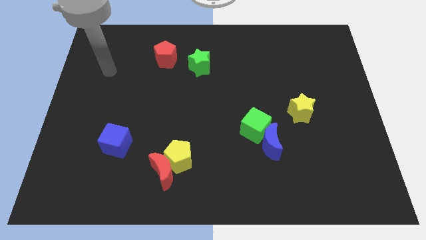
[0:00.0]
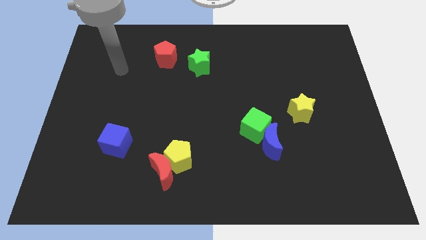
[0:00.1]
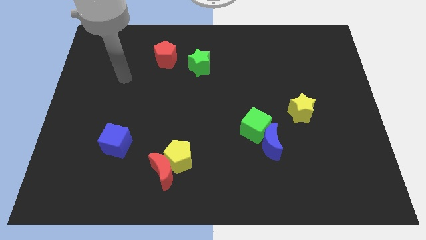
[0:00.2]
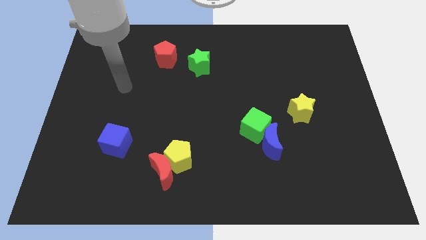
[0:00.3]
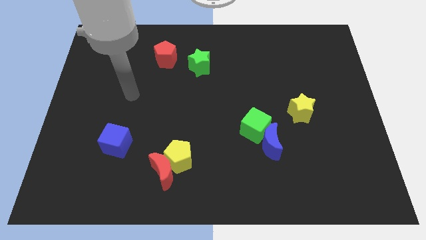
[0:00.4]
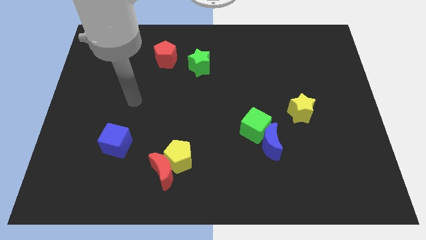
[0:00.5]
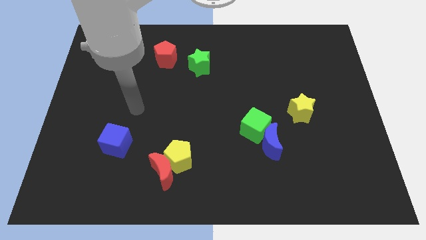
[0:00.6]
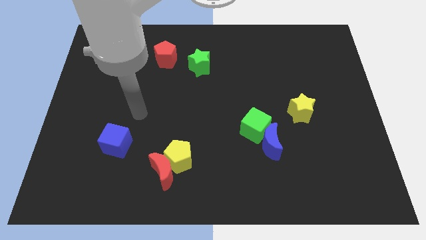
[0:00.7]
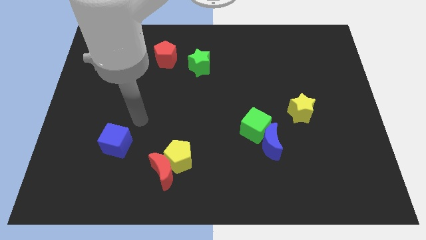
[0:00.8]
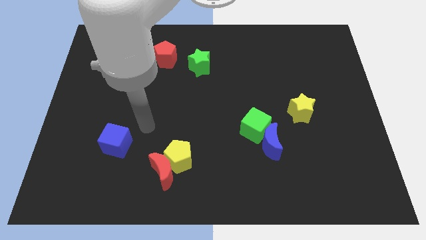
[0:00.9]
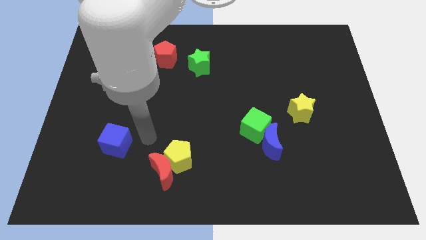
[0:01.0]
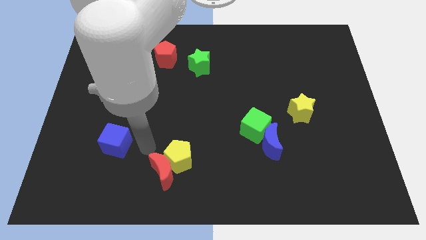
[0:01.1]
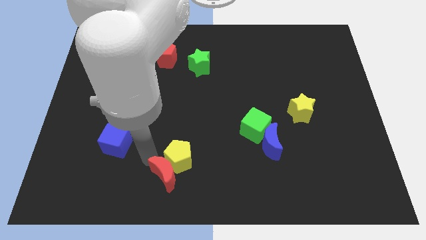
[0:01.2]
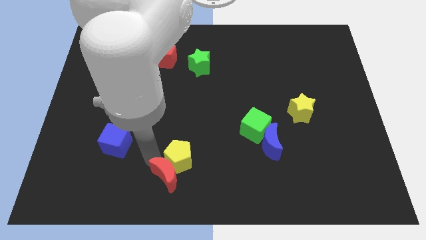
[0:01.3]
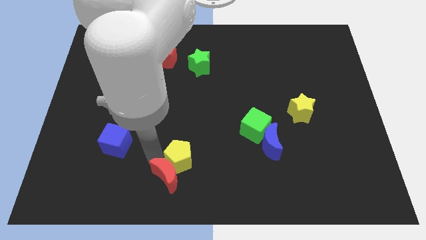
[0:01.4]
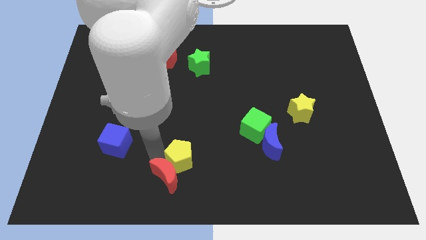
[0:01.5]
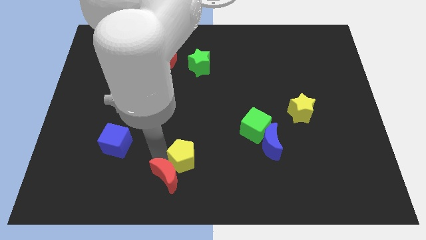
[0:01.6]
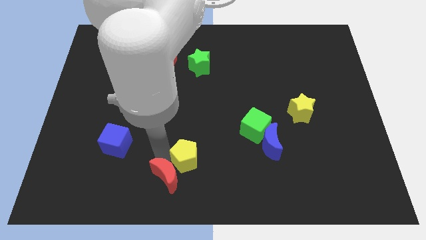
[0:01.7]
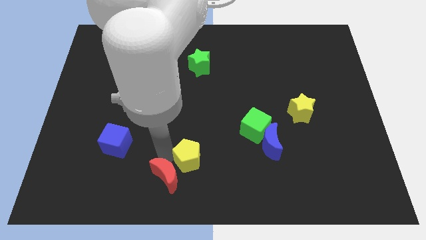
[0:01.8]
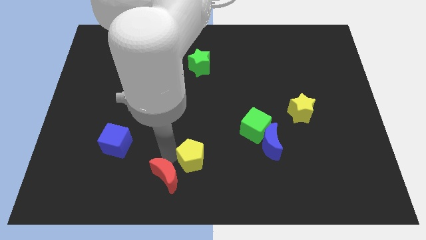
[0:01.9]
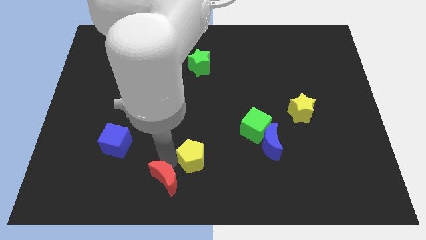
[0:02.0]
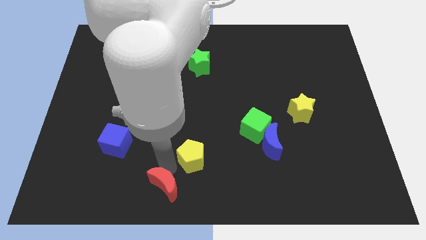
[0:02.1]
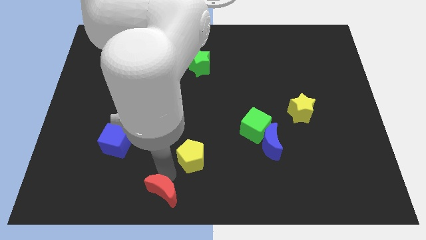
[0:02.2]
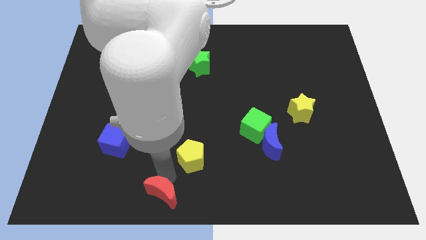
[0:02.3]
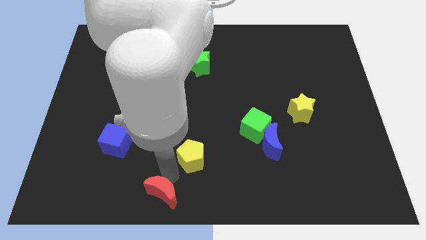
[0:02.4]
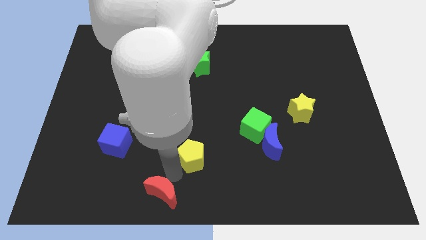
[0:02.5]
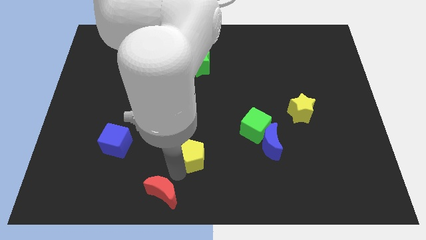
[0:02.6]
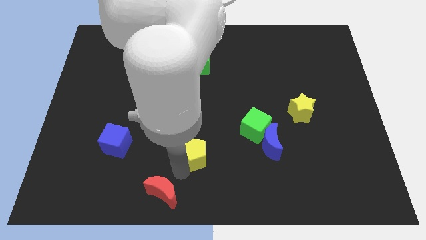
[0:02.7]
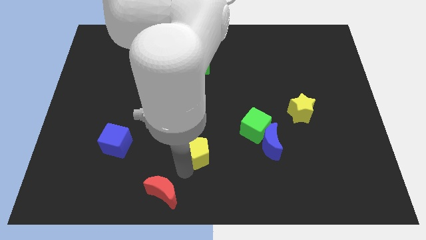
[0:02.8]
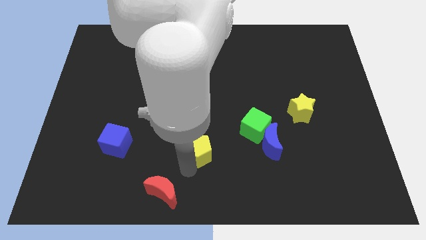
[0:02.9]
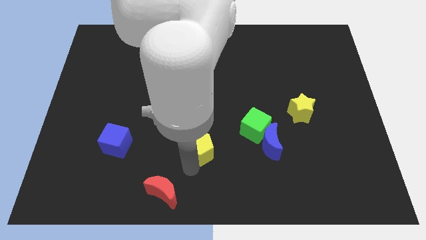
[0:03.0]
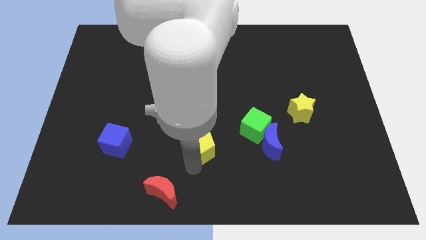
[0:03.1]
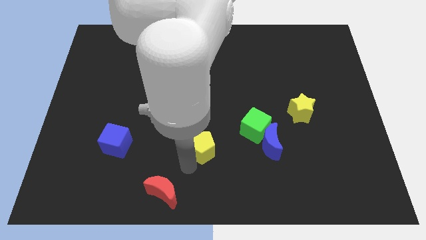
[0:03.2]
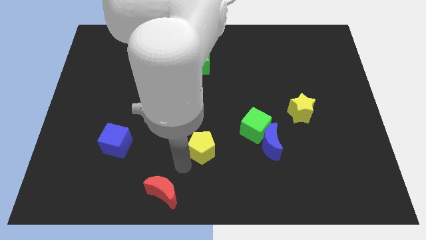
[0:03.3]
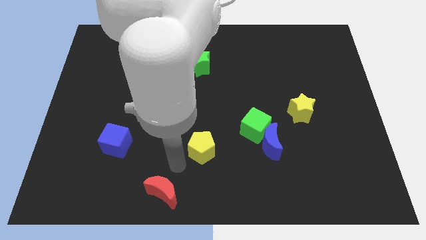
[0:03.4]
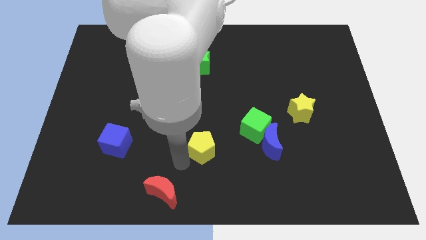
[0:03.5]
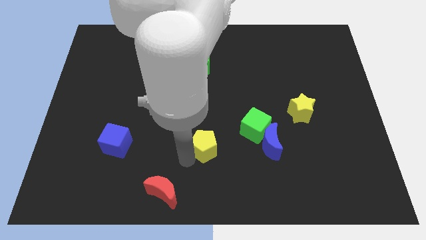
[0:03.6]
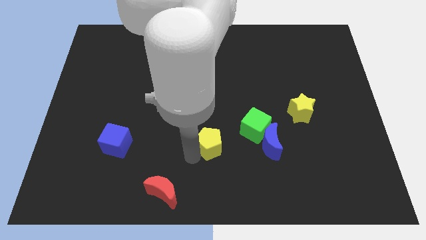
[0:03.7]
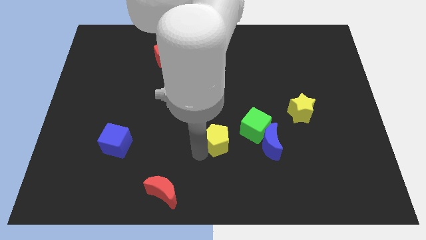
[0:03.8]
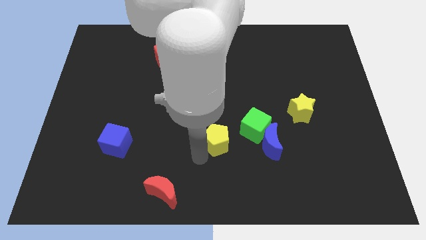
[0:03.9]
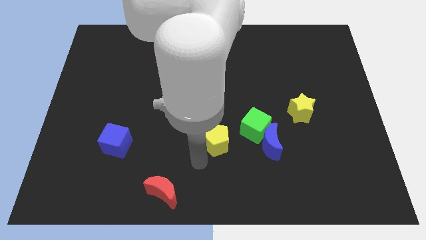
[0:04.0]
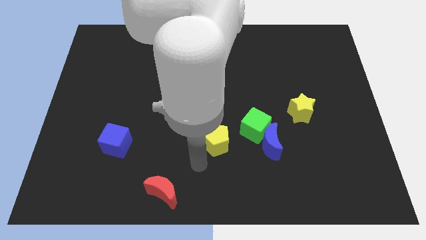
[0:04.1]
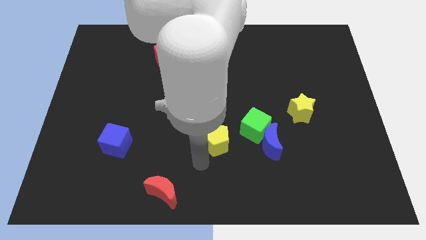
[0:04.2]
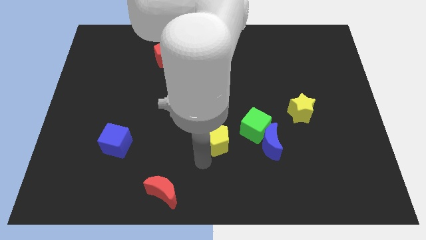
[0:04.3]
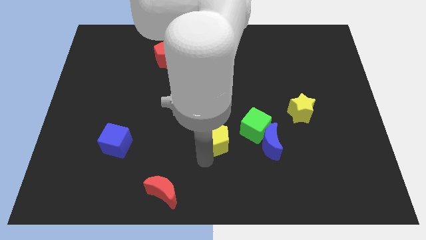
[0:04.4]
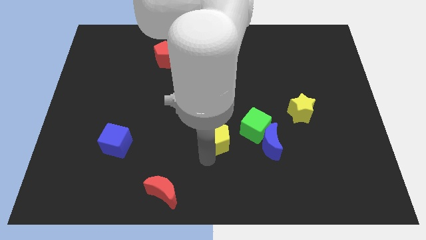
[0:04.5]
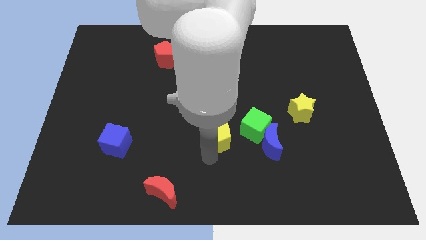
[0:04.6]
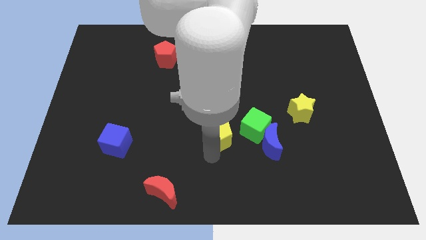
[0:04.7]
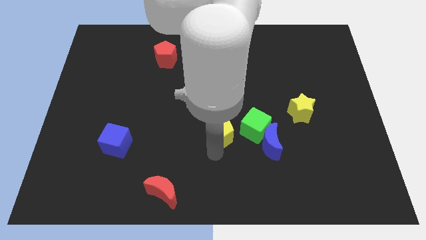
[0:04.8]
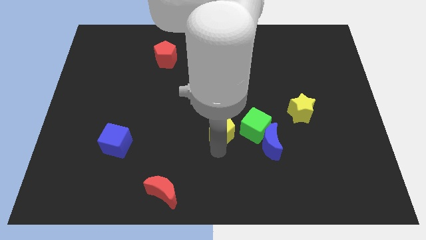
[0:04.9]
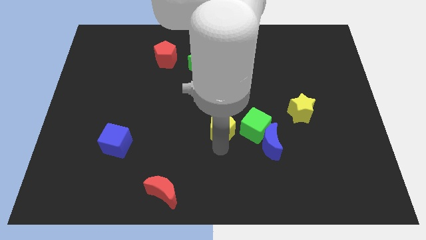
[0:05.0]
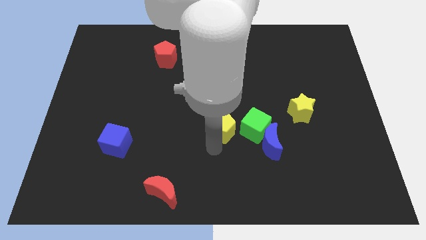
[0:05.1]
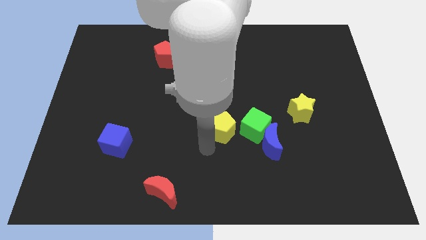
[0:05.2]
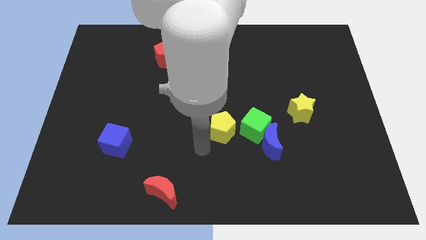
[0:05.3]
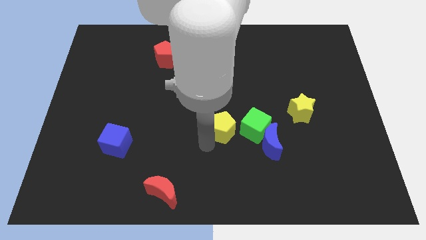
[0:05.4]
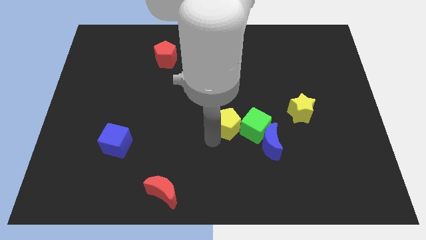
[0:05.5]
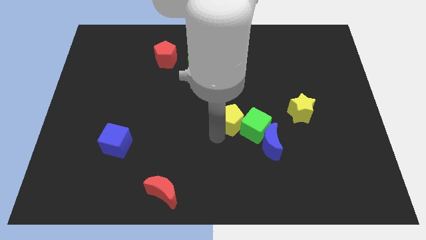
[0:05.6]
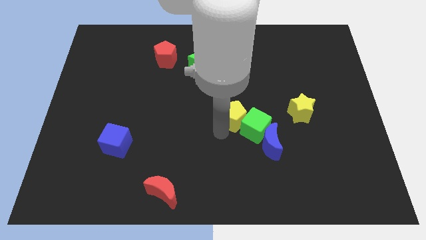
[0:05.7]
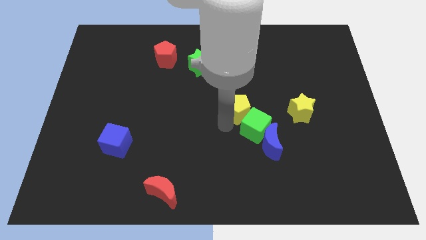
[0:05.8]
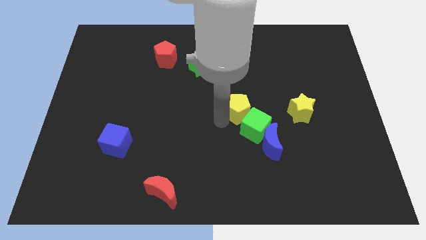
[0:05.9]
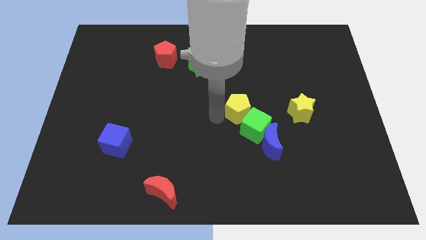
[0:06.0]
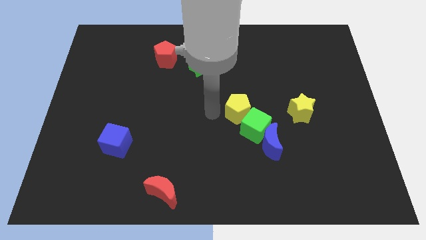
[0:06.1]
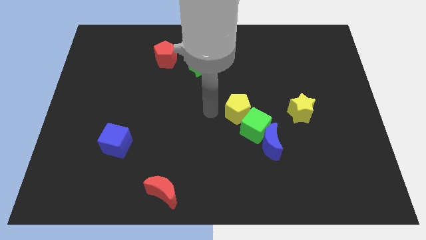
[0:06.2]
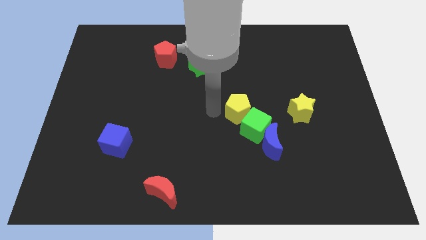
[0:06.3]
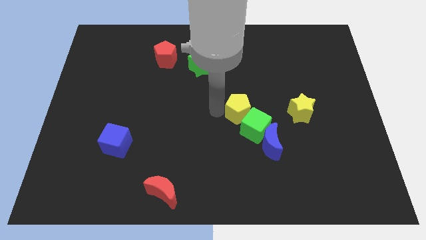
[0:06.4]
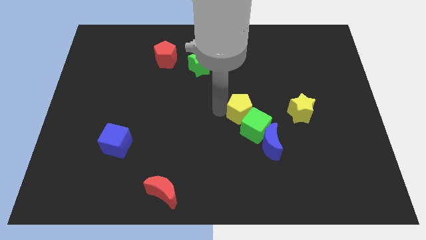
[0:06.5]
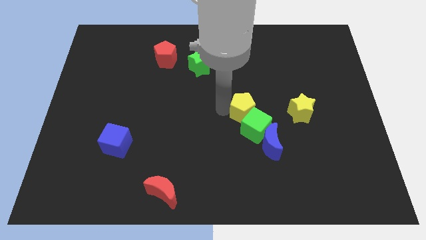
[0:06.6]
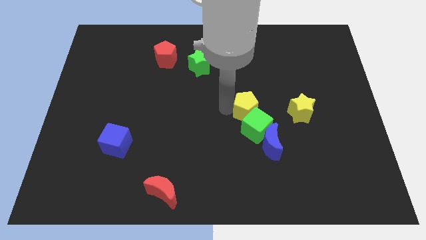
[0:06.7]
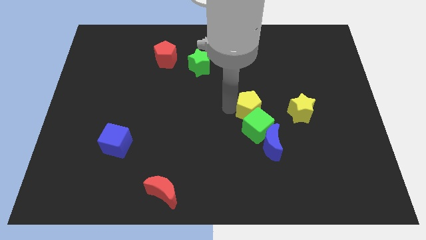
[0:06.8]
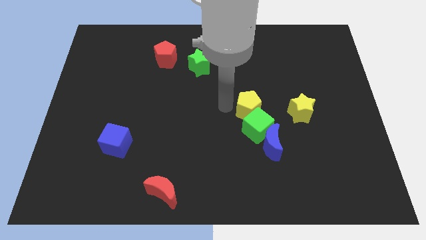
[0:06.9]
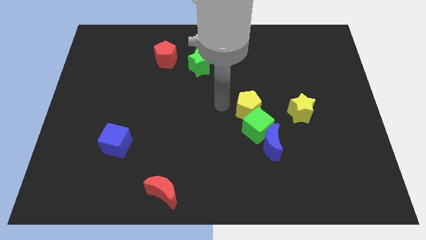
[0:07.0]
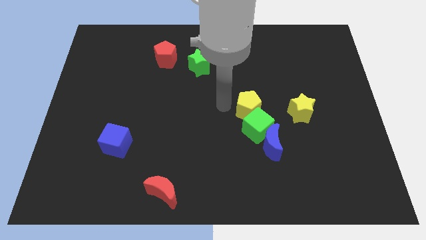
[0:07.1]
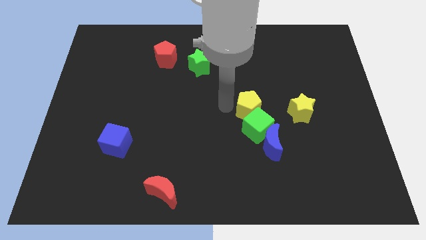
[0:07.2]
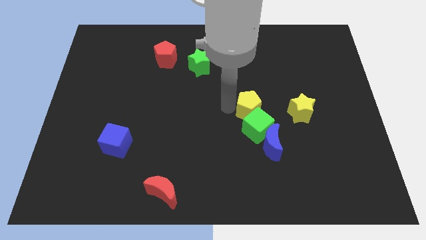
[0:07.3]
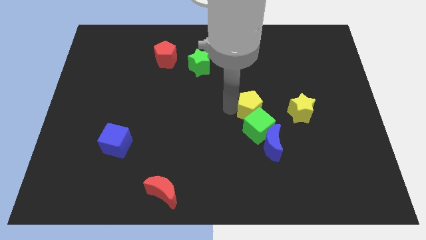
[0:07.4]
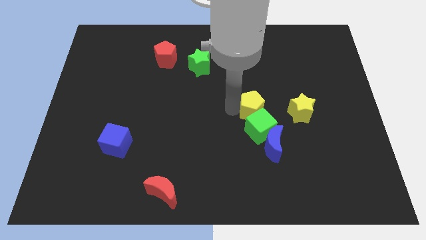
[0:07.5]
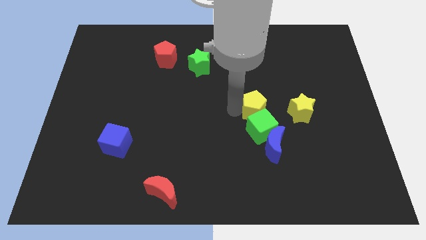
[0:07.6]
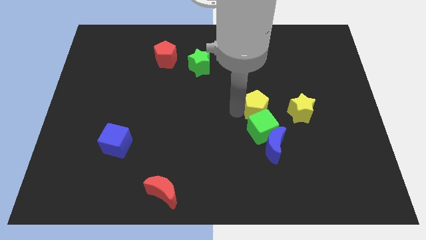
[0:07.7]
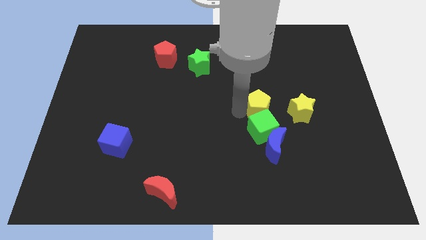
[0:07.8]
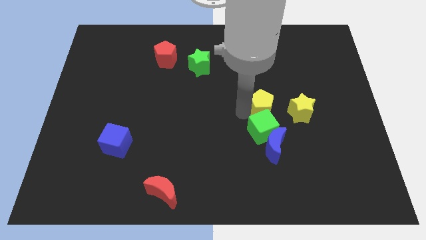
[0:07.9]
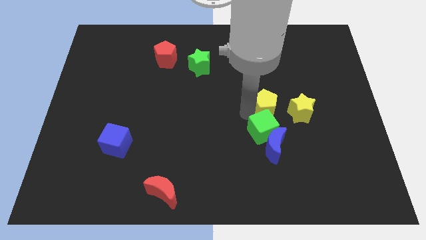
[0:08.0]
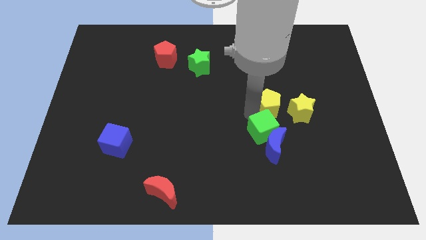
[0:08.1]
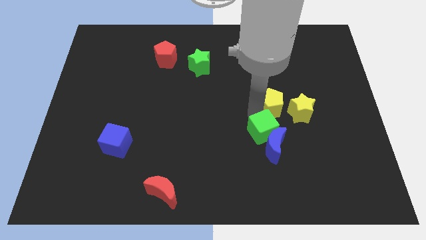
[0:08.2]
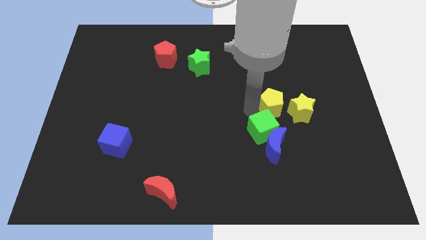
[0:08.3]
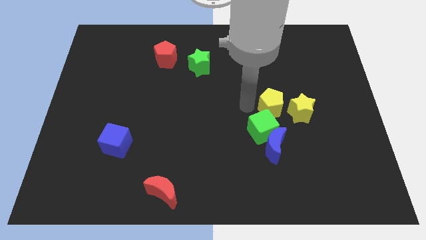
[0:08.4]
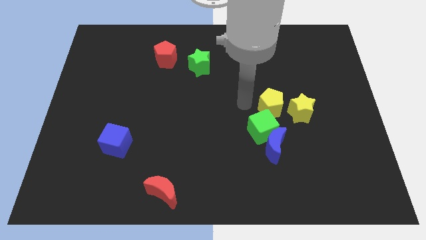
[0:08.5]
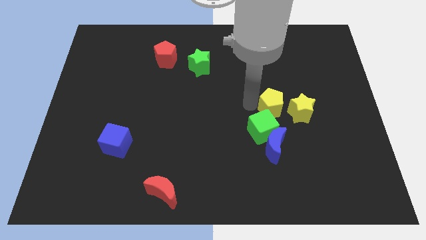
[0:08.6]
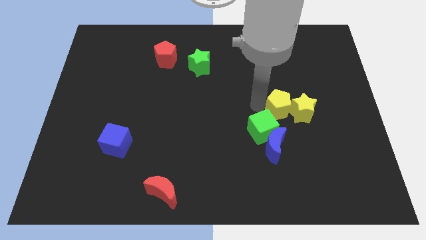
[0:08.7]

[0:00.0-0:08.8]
slide the yellow pentagon next to the yellow star
